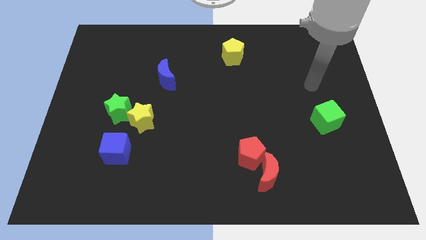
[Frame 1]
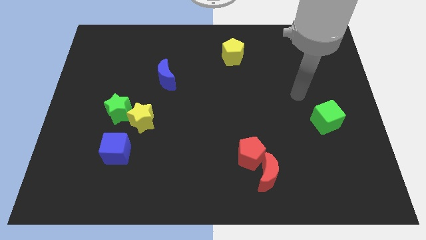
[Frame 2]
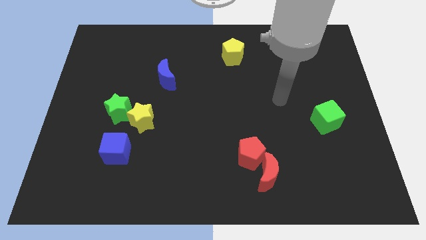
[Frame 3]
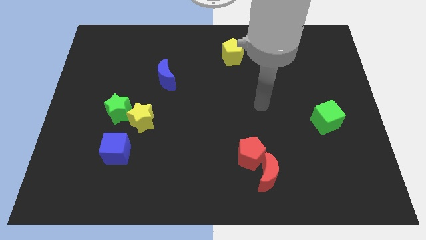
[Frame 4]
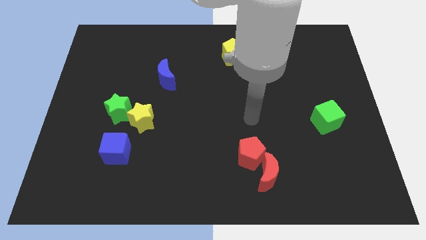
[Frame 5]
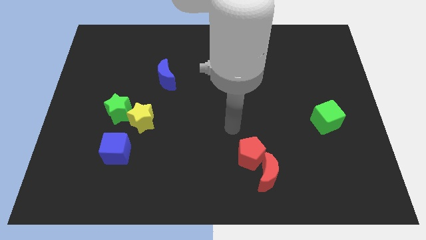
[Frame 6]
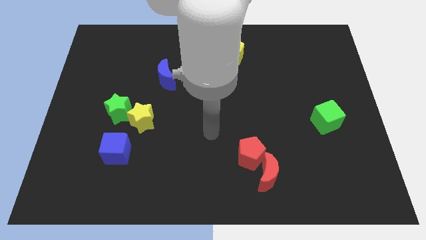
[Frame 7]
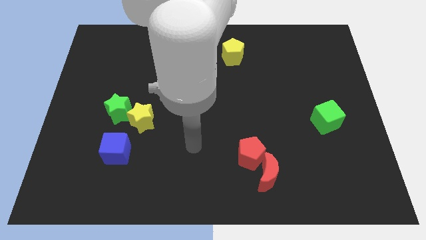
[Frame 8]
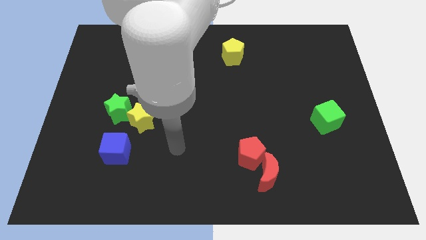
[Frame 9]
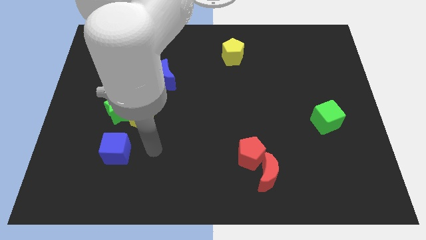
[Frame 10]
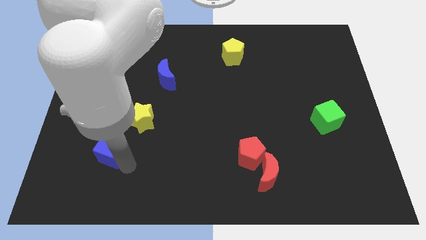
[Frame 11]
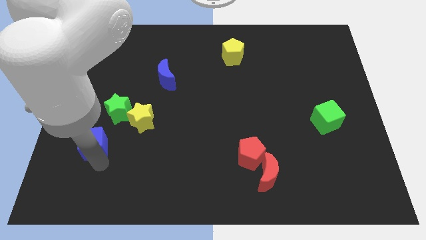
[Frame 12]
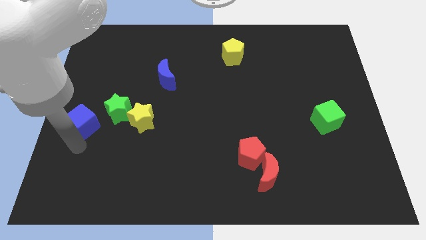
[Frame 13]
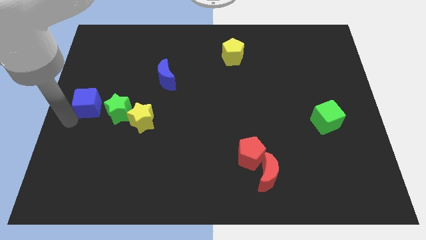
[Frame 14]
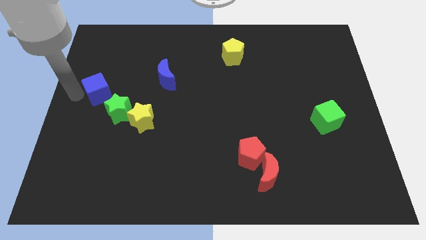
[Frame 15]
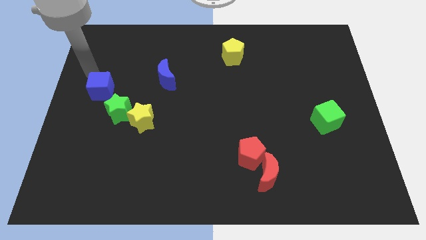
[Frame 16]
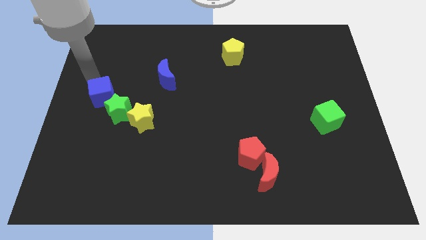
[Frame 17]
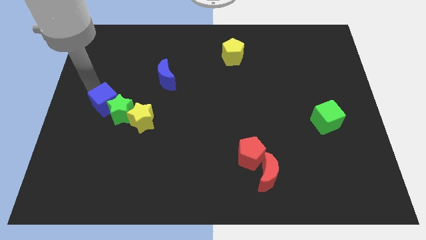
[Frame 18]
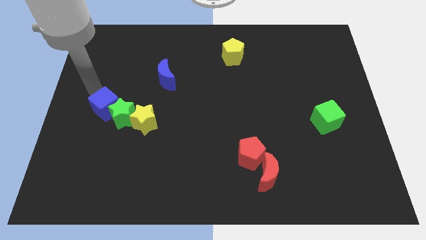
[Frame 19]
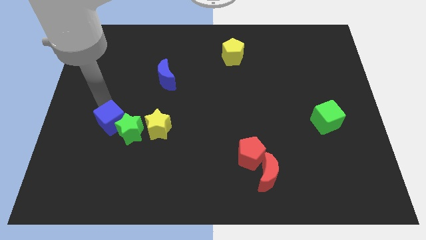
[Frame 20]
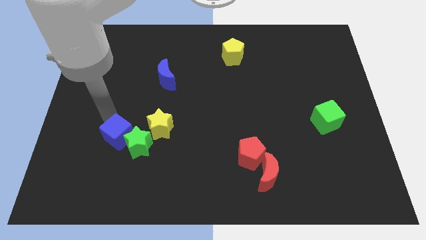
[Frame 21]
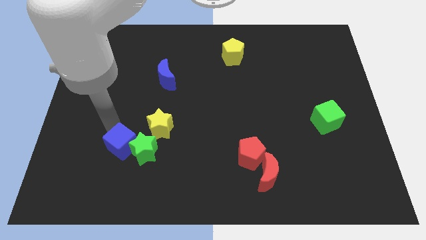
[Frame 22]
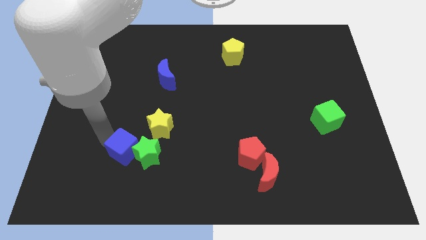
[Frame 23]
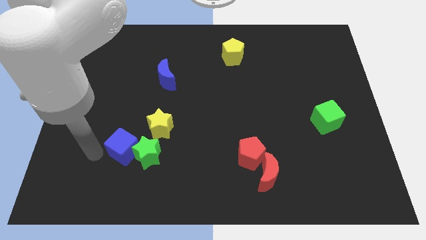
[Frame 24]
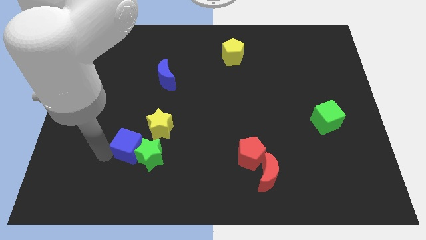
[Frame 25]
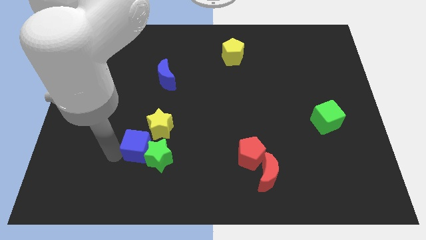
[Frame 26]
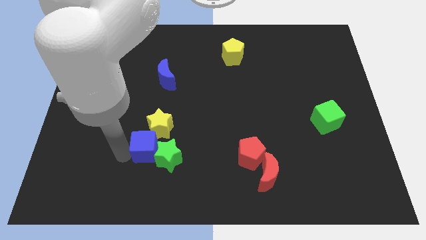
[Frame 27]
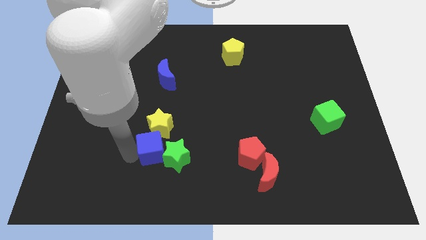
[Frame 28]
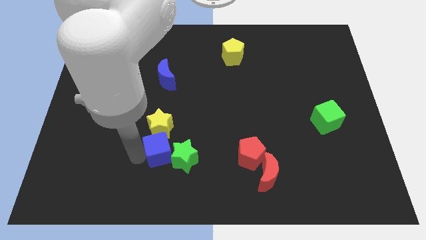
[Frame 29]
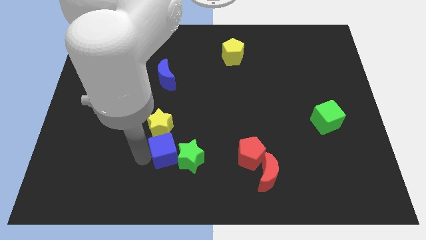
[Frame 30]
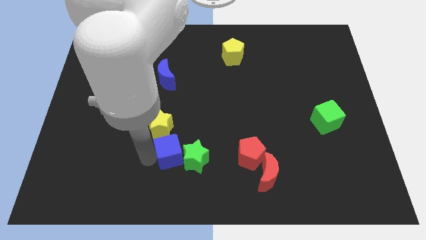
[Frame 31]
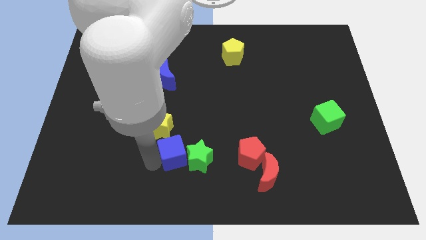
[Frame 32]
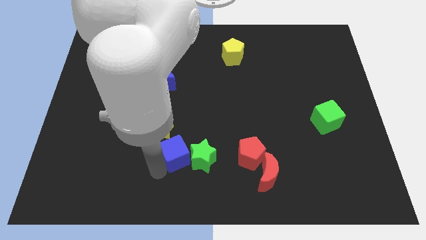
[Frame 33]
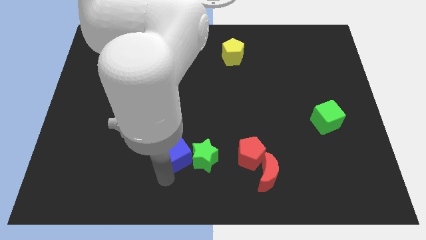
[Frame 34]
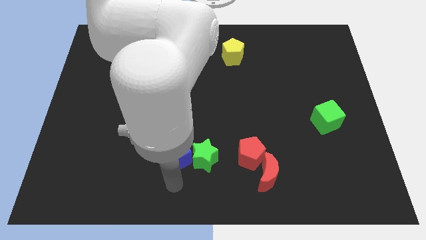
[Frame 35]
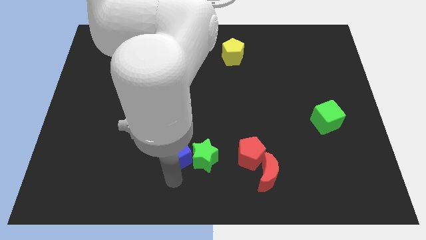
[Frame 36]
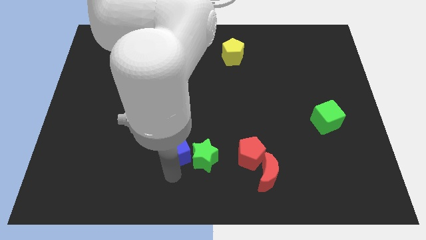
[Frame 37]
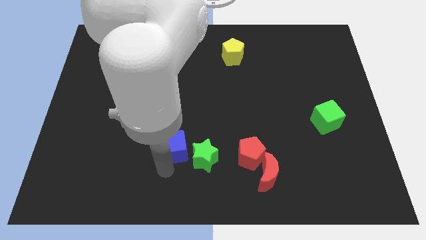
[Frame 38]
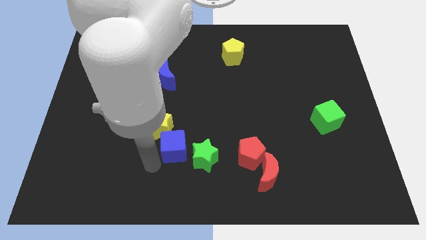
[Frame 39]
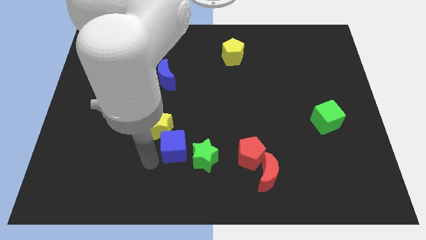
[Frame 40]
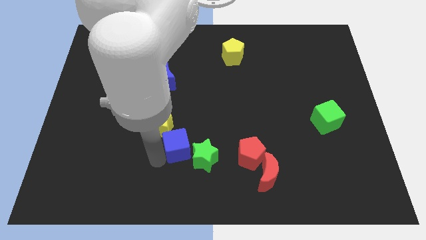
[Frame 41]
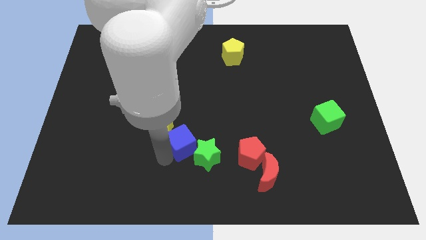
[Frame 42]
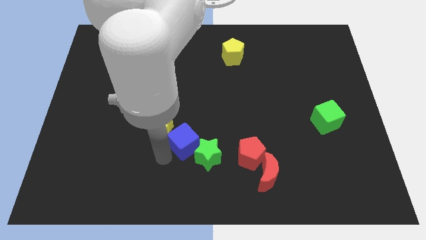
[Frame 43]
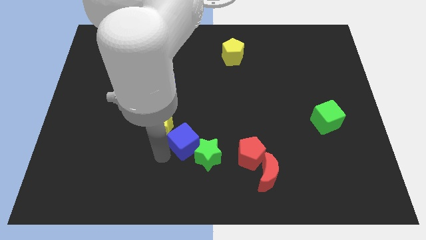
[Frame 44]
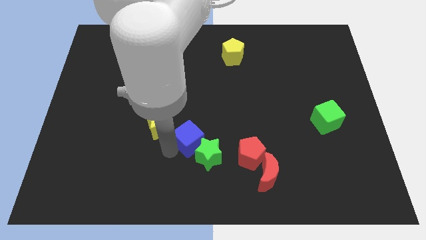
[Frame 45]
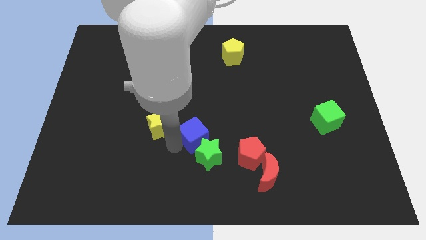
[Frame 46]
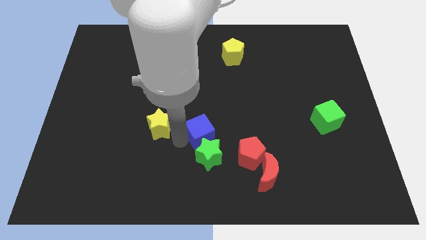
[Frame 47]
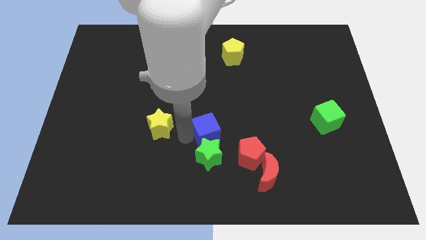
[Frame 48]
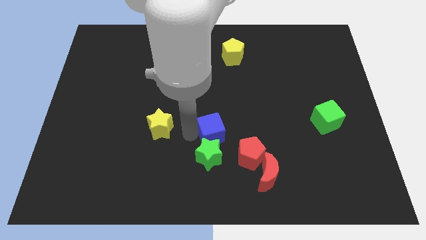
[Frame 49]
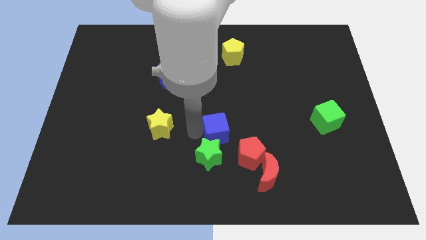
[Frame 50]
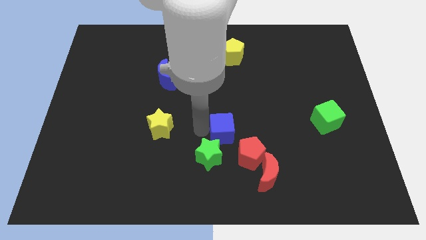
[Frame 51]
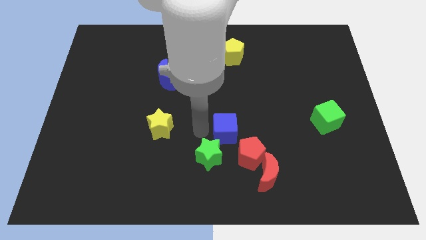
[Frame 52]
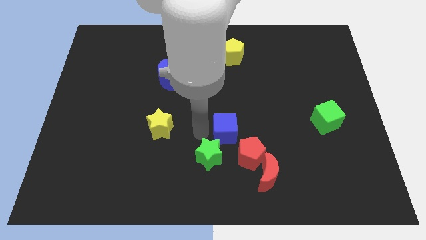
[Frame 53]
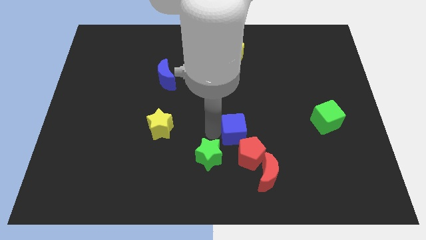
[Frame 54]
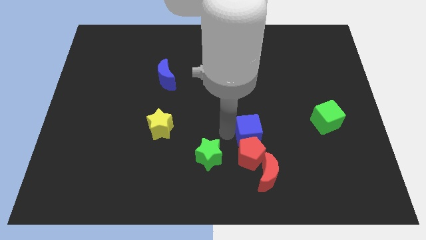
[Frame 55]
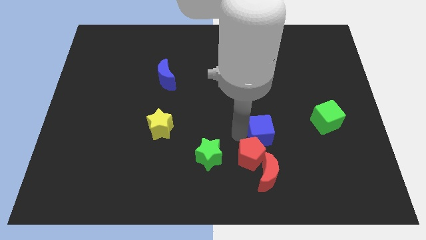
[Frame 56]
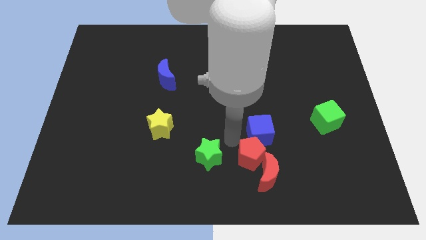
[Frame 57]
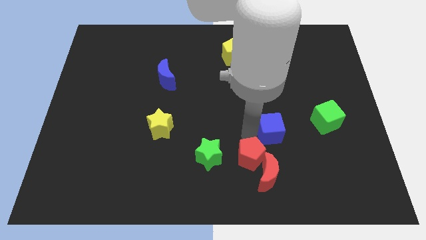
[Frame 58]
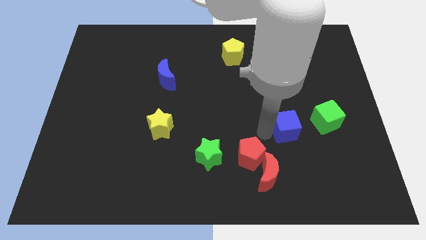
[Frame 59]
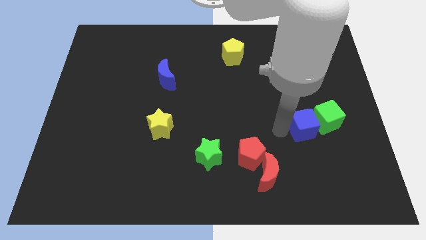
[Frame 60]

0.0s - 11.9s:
push the blue cube to the green cube

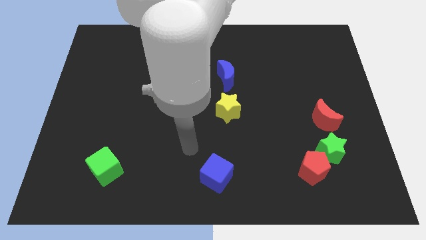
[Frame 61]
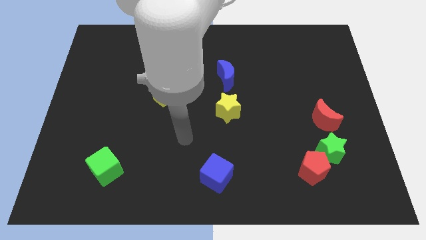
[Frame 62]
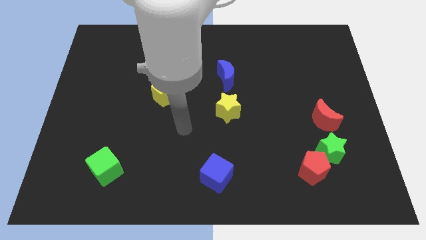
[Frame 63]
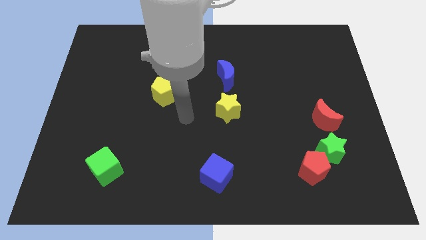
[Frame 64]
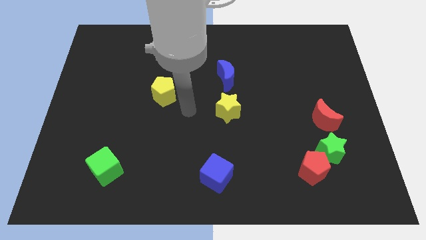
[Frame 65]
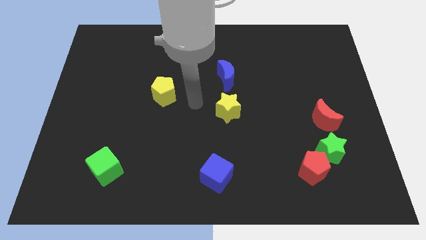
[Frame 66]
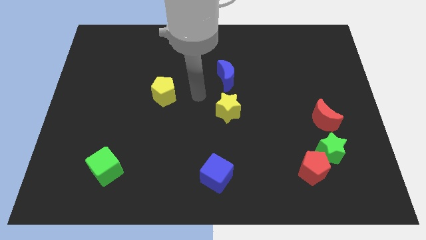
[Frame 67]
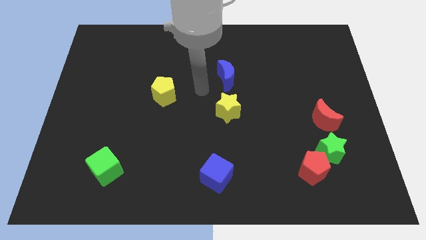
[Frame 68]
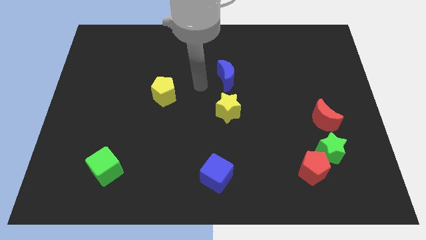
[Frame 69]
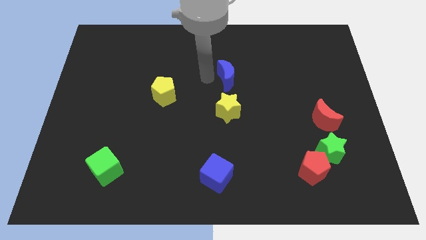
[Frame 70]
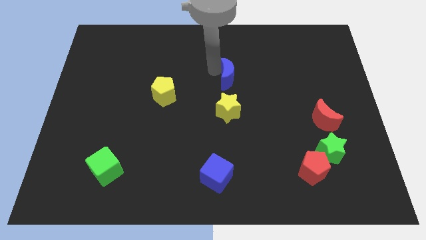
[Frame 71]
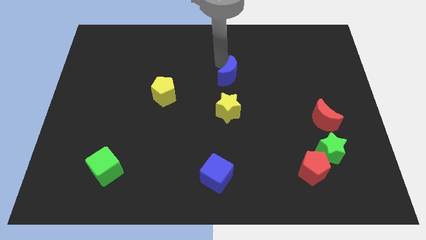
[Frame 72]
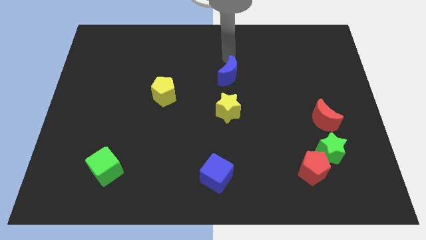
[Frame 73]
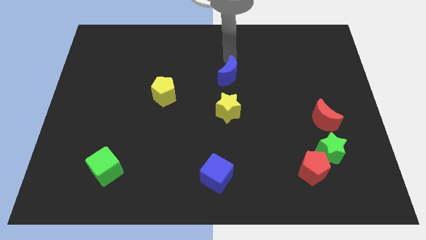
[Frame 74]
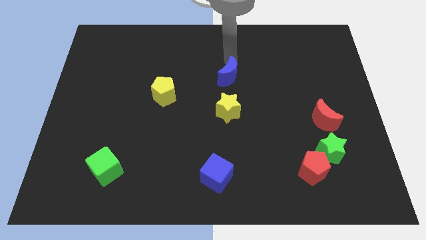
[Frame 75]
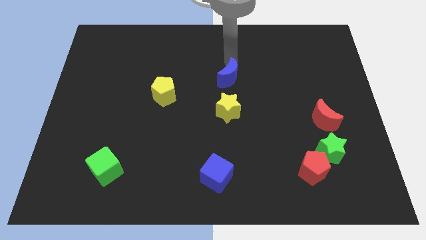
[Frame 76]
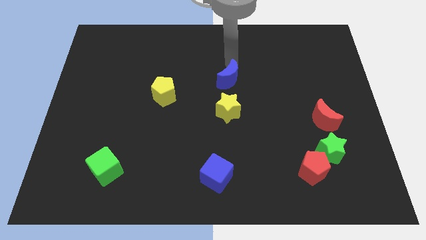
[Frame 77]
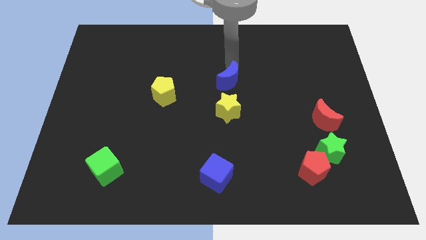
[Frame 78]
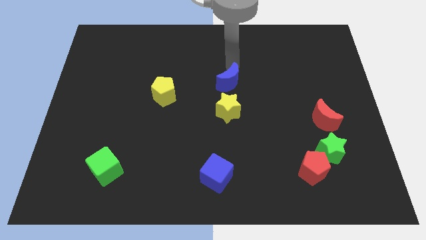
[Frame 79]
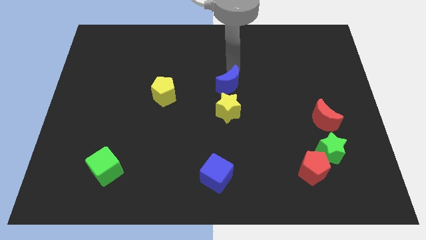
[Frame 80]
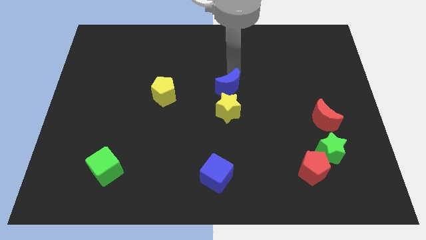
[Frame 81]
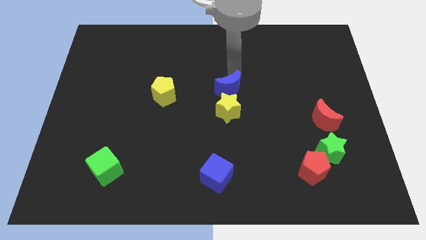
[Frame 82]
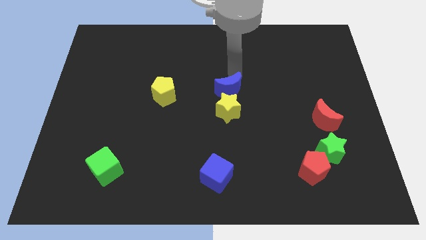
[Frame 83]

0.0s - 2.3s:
push the blue moon close to the yellow star
